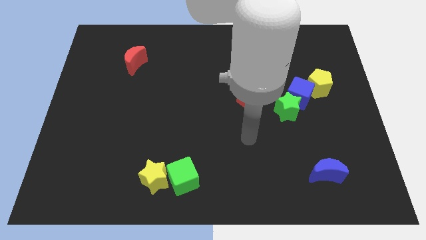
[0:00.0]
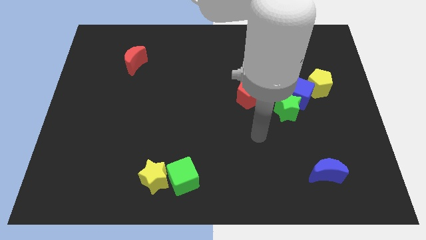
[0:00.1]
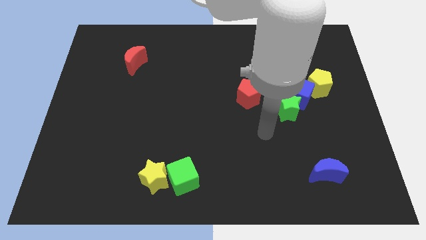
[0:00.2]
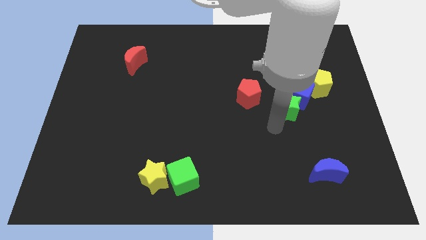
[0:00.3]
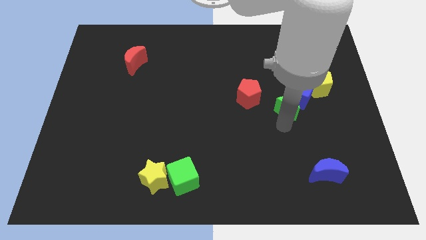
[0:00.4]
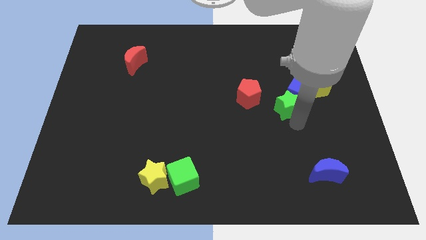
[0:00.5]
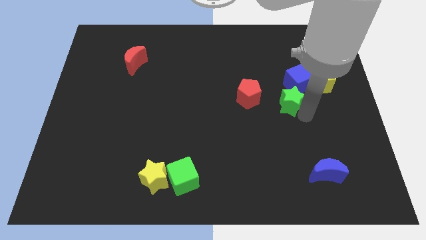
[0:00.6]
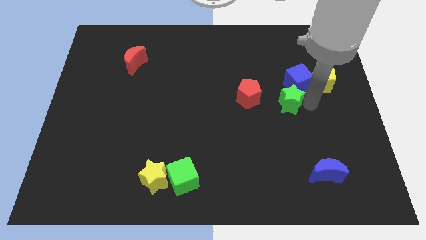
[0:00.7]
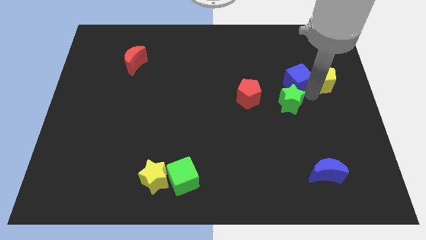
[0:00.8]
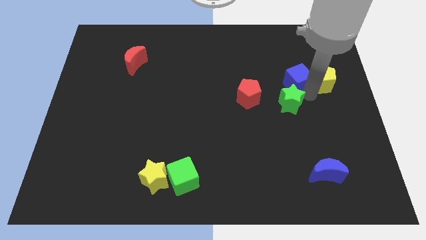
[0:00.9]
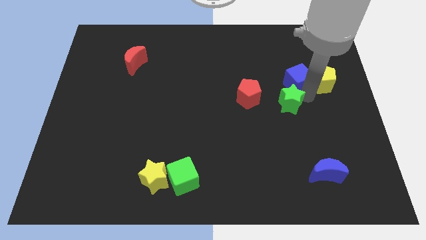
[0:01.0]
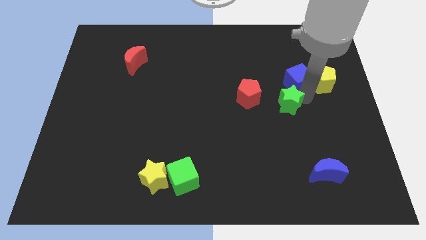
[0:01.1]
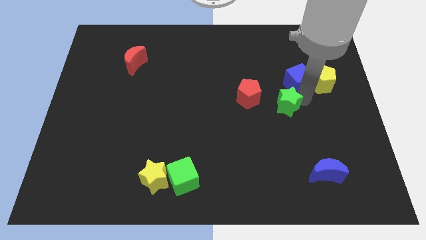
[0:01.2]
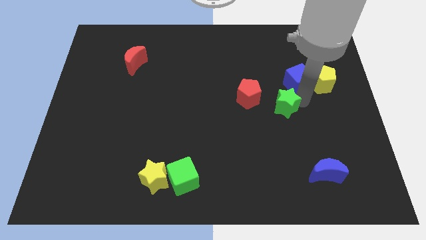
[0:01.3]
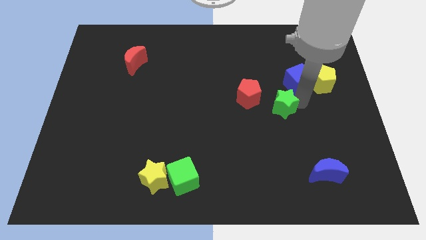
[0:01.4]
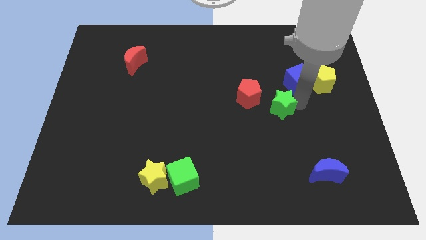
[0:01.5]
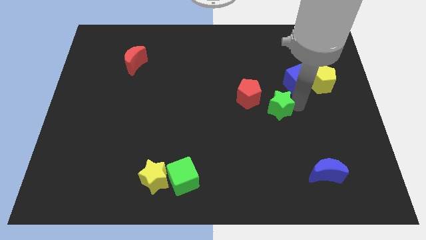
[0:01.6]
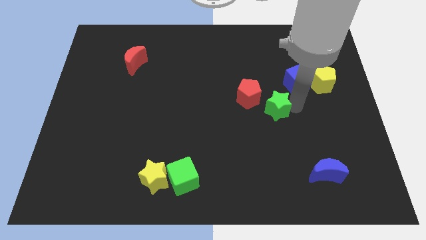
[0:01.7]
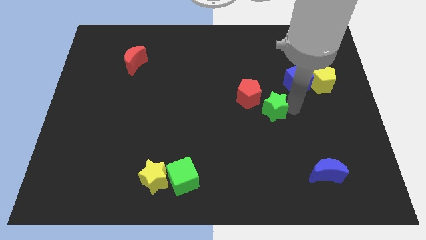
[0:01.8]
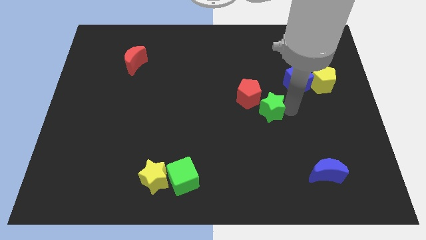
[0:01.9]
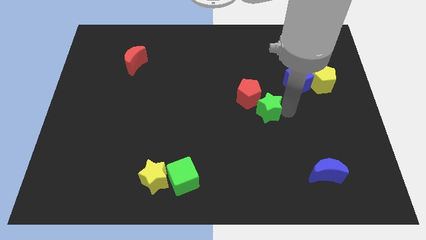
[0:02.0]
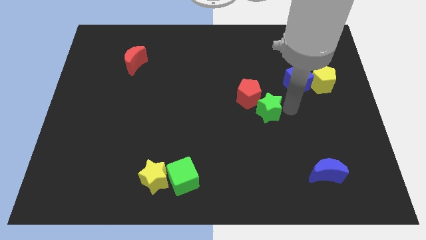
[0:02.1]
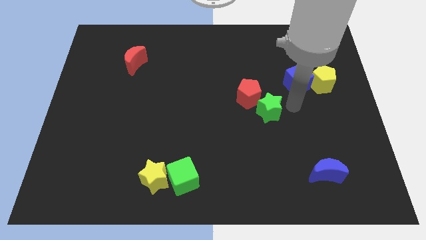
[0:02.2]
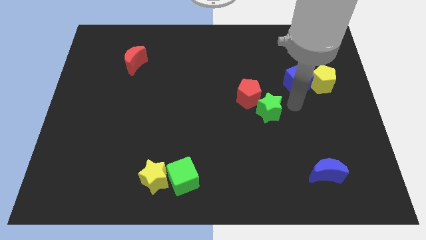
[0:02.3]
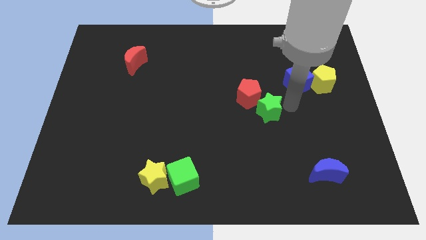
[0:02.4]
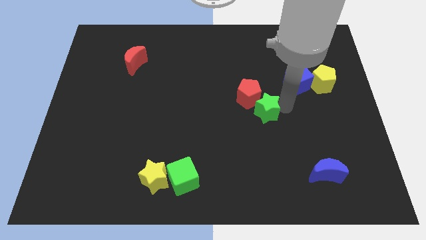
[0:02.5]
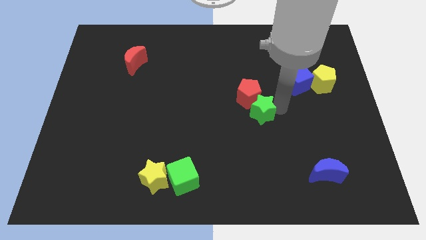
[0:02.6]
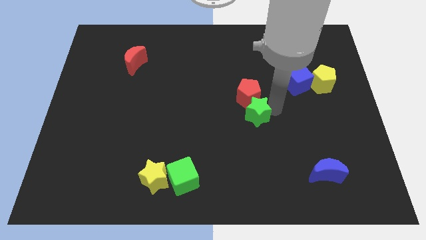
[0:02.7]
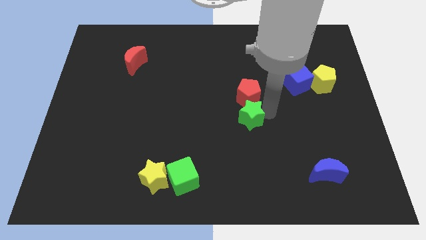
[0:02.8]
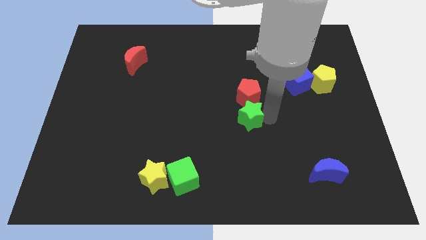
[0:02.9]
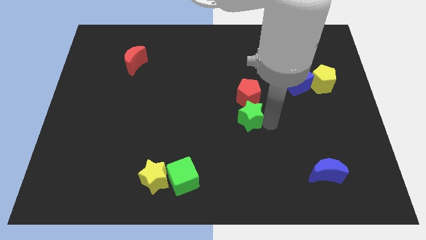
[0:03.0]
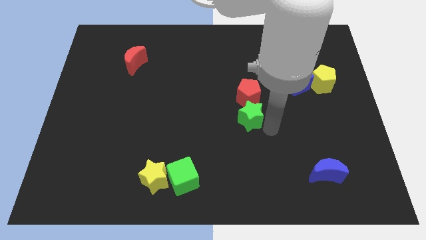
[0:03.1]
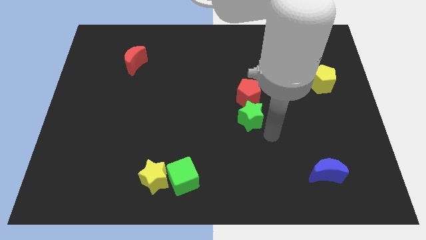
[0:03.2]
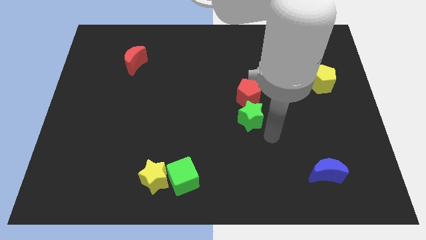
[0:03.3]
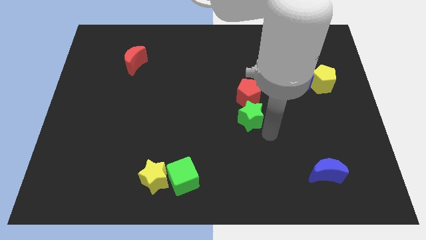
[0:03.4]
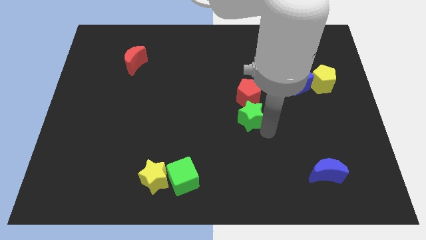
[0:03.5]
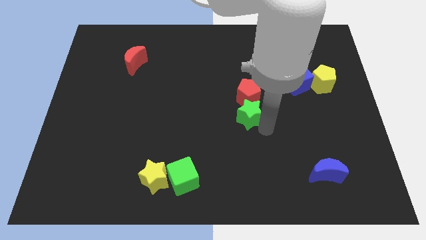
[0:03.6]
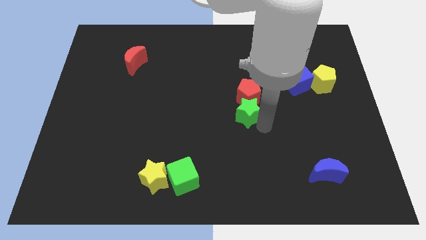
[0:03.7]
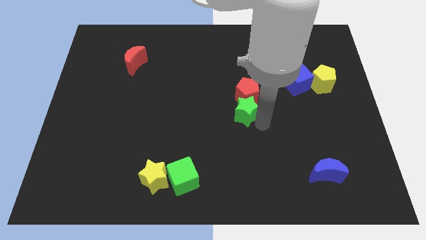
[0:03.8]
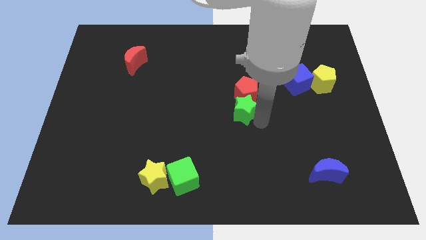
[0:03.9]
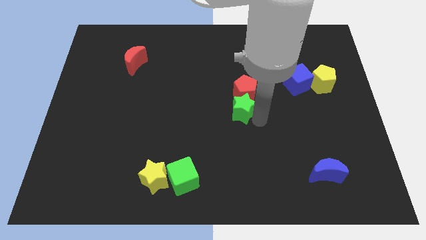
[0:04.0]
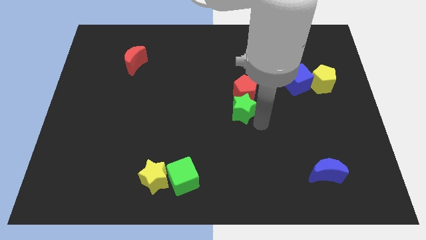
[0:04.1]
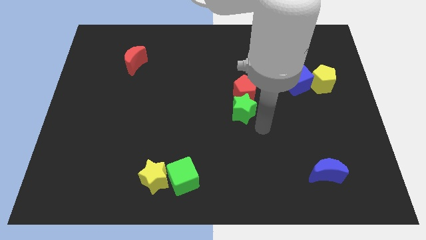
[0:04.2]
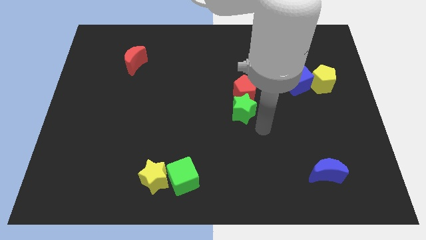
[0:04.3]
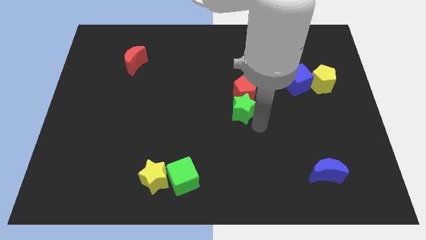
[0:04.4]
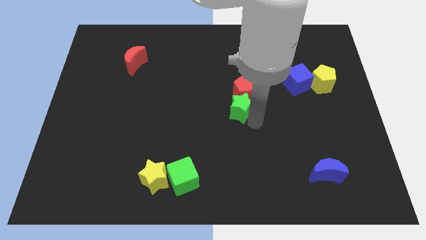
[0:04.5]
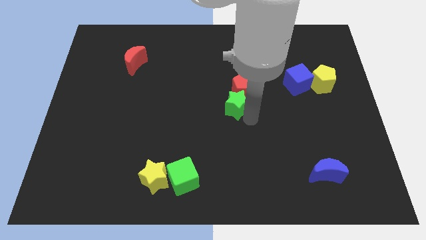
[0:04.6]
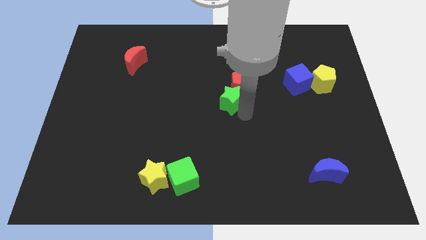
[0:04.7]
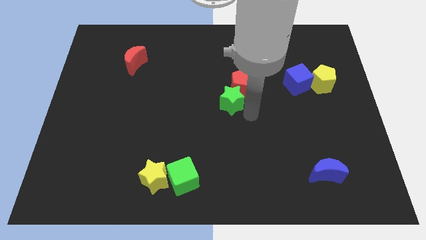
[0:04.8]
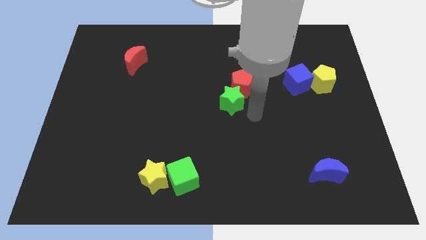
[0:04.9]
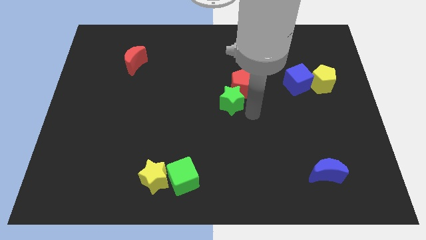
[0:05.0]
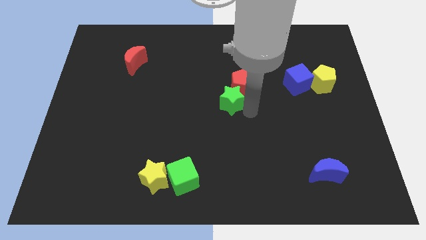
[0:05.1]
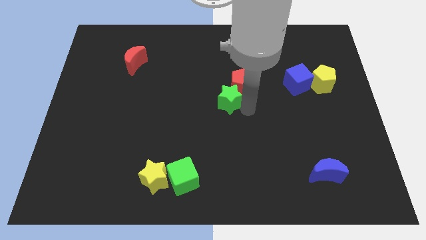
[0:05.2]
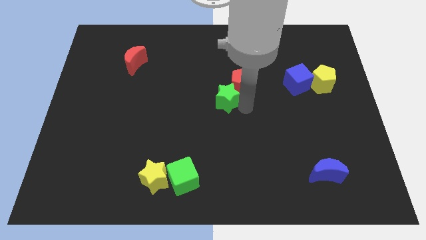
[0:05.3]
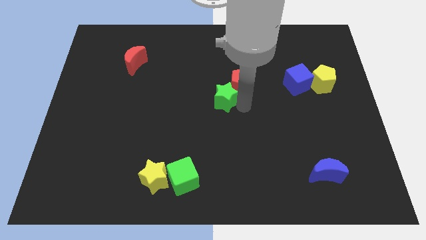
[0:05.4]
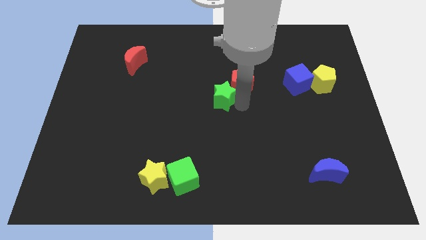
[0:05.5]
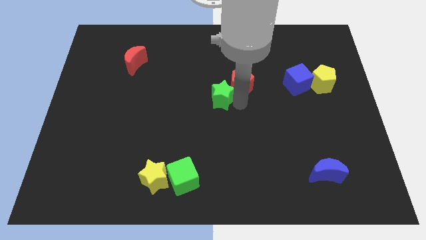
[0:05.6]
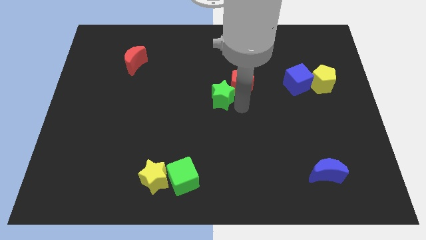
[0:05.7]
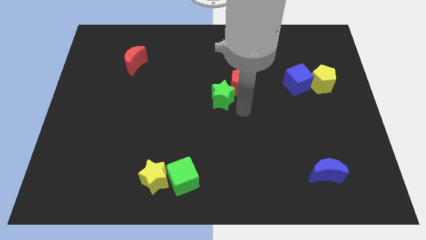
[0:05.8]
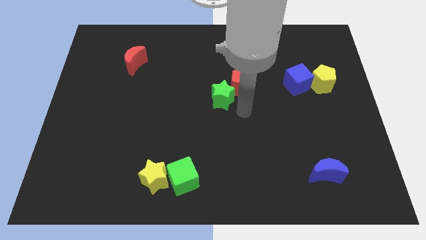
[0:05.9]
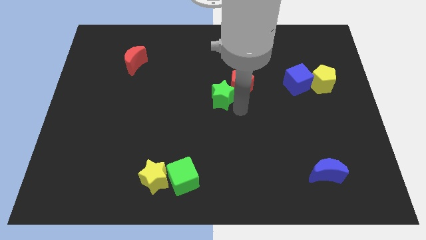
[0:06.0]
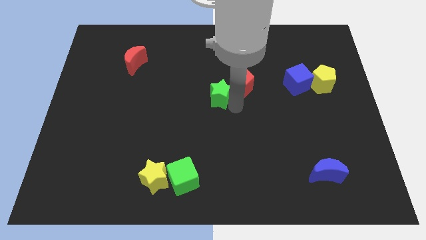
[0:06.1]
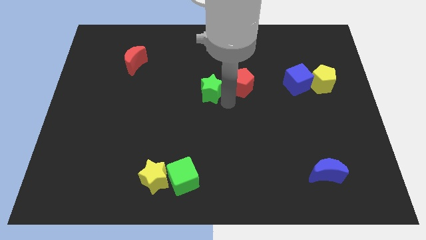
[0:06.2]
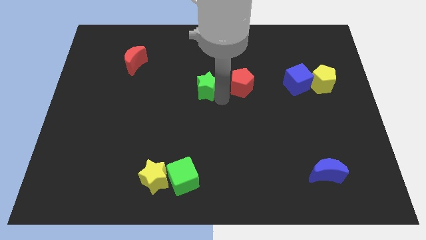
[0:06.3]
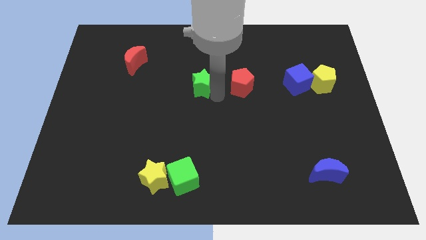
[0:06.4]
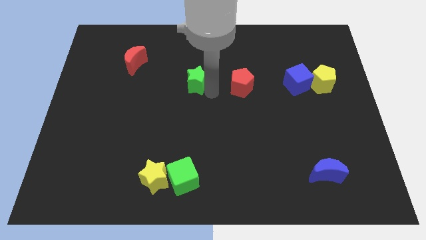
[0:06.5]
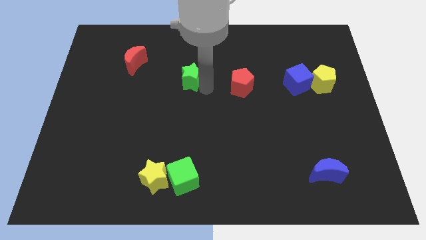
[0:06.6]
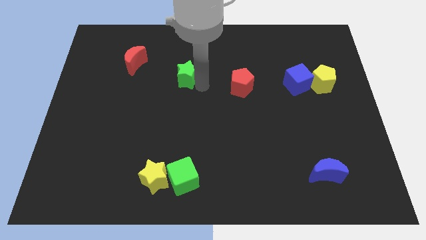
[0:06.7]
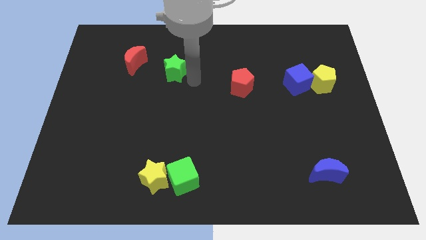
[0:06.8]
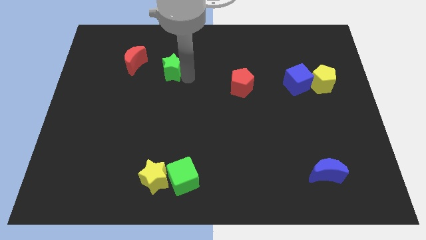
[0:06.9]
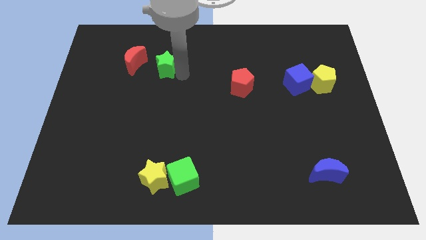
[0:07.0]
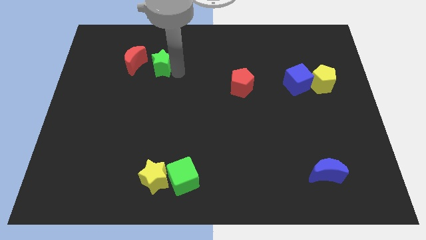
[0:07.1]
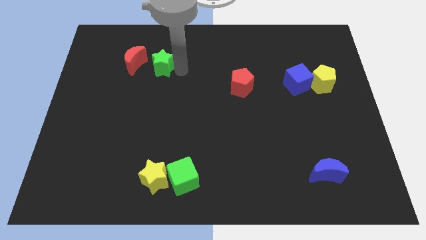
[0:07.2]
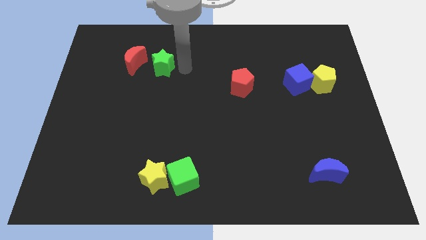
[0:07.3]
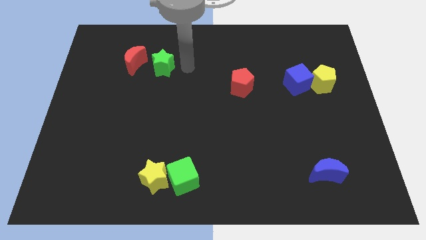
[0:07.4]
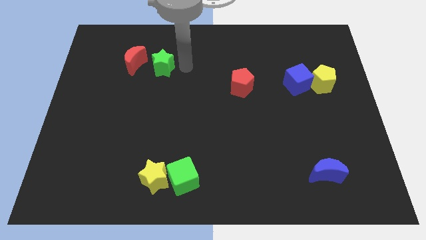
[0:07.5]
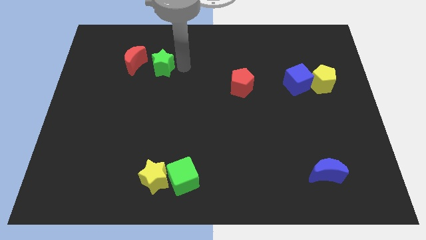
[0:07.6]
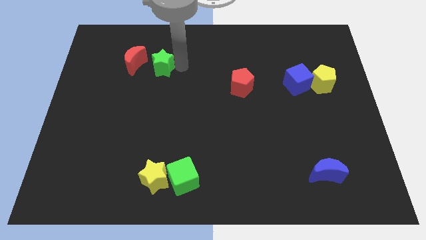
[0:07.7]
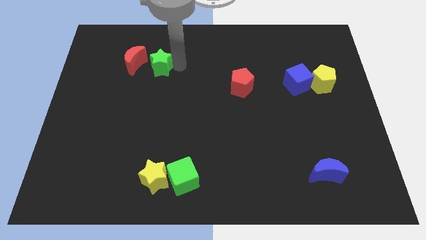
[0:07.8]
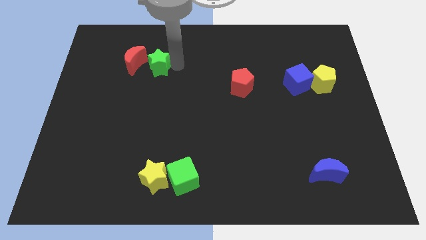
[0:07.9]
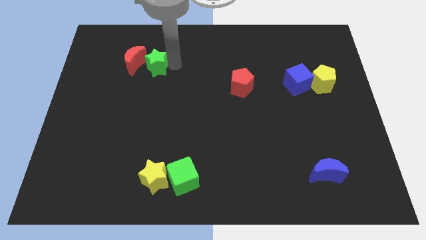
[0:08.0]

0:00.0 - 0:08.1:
push the green star towards the red moon
